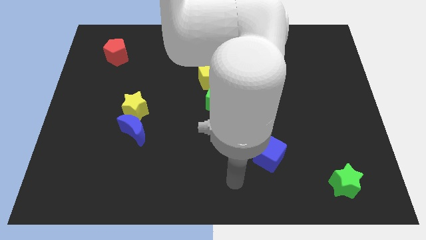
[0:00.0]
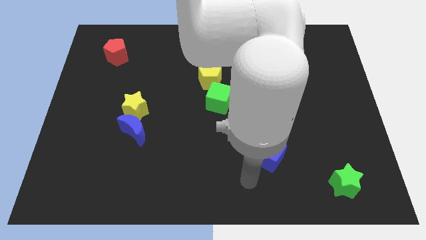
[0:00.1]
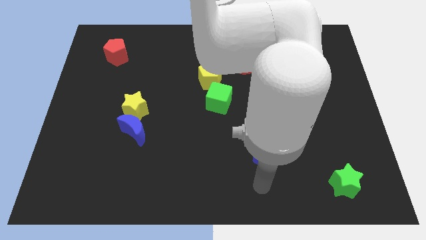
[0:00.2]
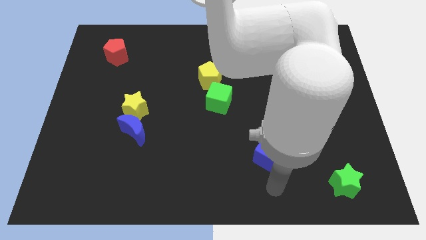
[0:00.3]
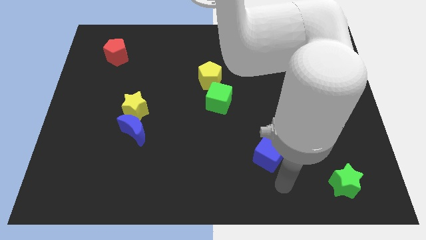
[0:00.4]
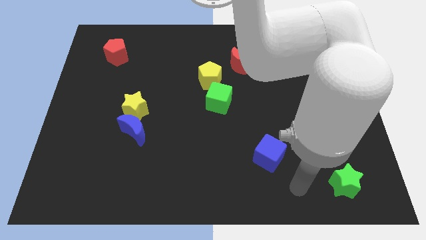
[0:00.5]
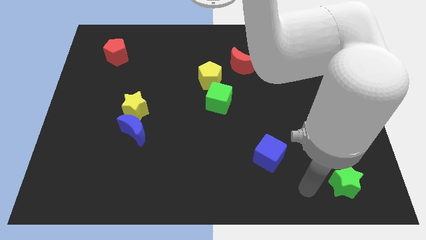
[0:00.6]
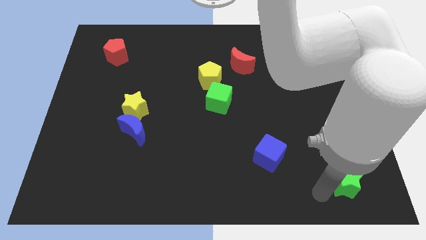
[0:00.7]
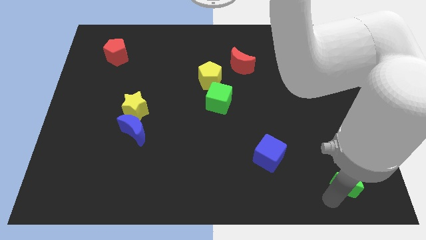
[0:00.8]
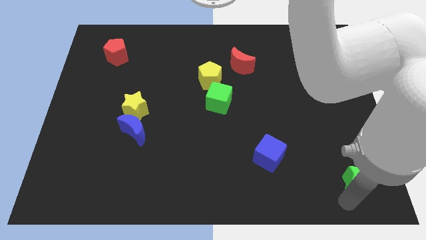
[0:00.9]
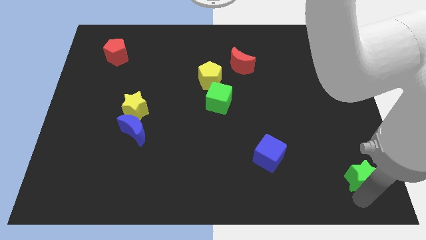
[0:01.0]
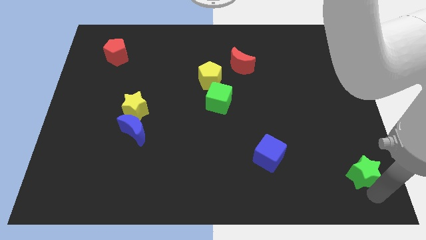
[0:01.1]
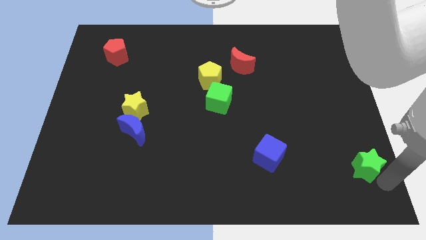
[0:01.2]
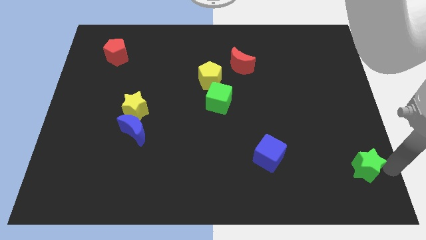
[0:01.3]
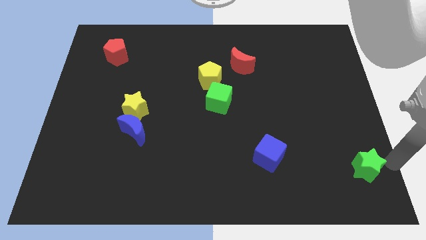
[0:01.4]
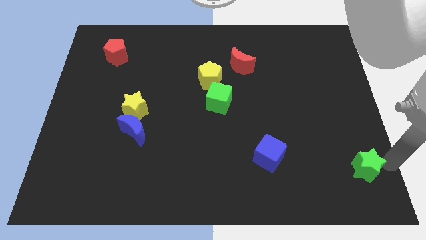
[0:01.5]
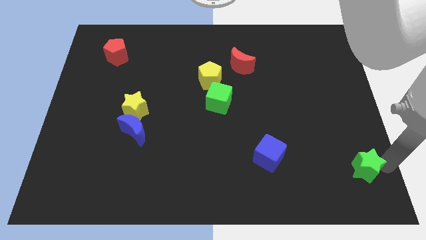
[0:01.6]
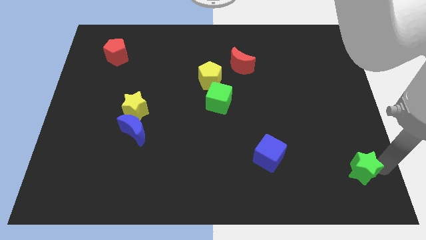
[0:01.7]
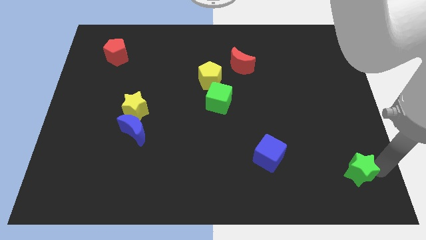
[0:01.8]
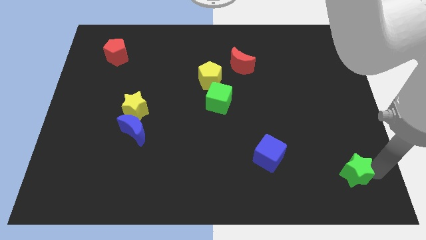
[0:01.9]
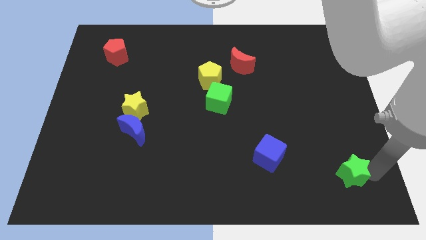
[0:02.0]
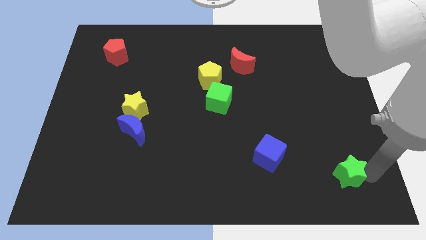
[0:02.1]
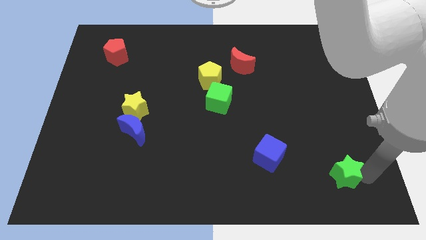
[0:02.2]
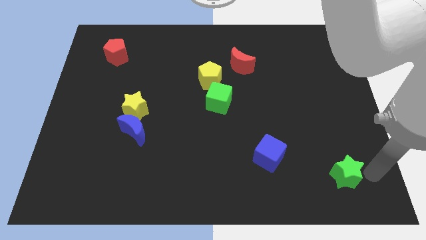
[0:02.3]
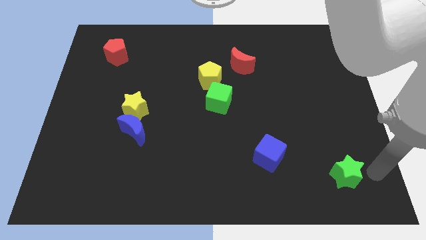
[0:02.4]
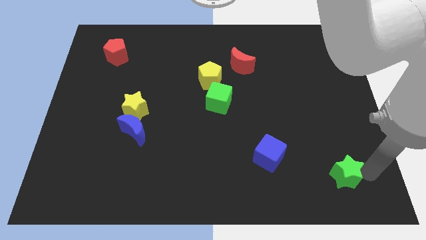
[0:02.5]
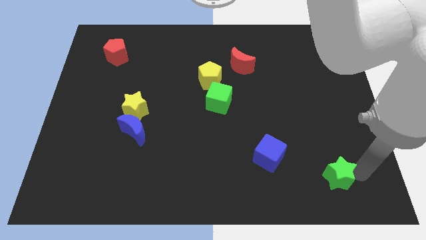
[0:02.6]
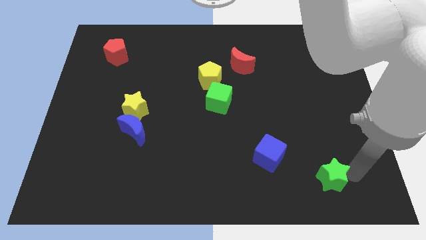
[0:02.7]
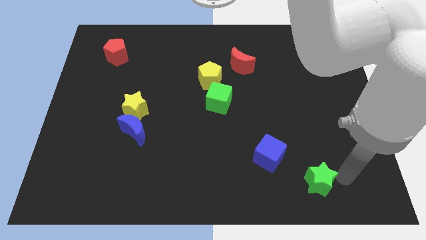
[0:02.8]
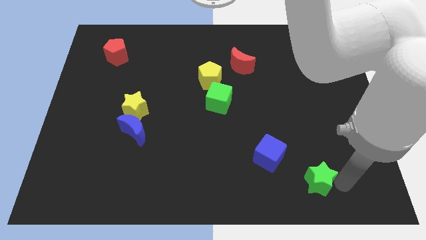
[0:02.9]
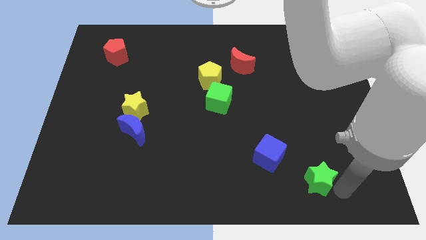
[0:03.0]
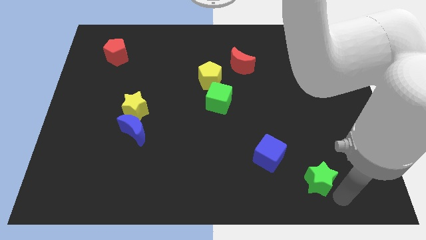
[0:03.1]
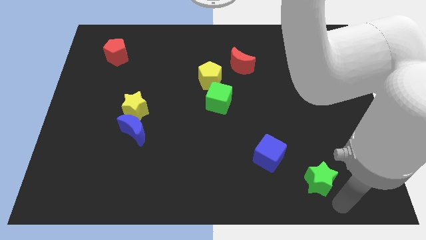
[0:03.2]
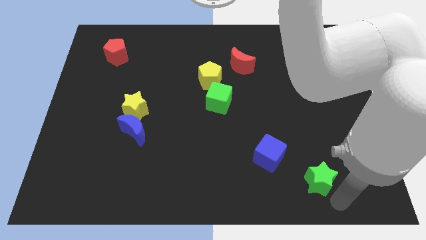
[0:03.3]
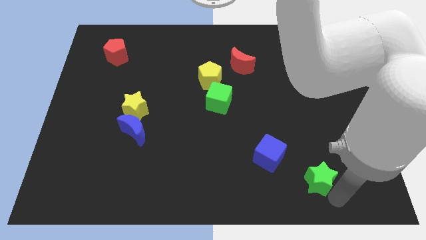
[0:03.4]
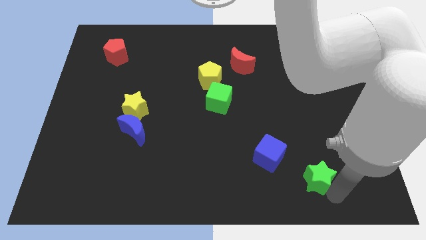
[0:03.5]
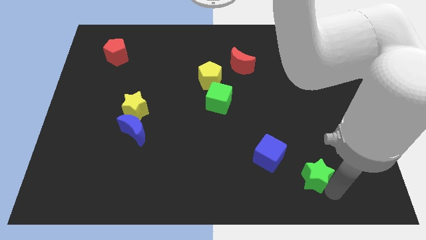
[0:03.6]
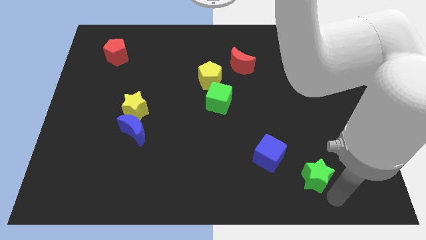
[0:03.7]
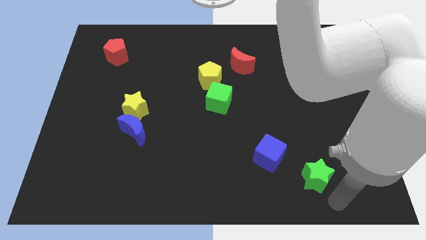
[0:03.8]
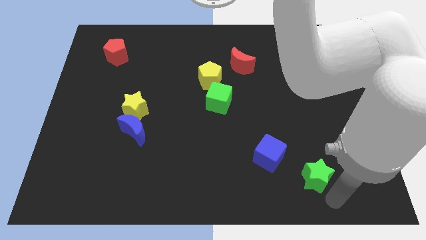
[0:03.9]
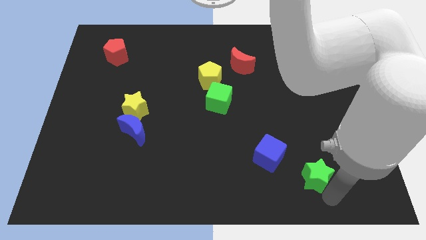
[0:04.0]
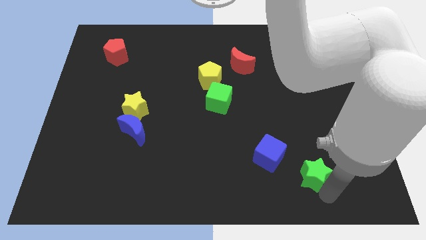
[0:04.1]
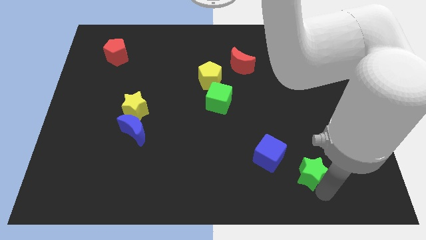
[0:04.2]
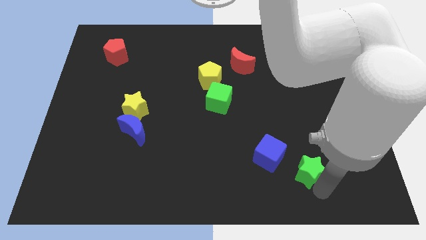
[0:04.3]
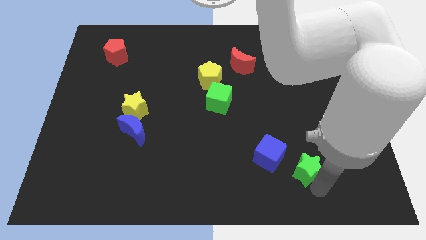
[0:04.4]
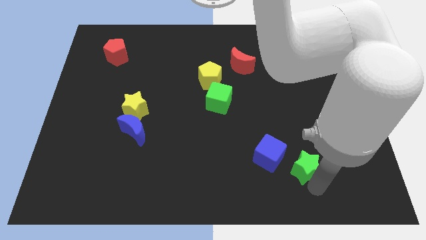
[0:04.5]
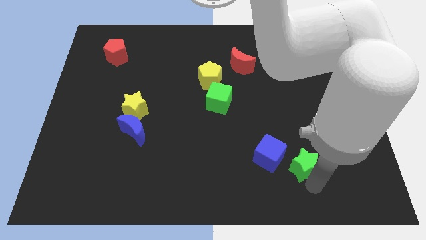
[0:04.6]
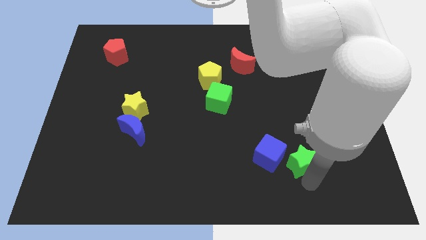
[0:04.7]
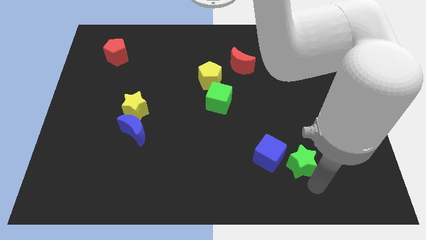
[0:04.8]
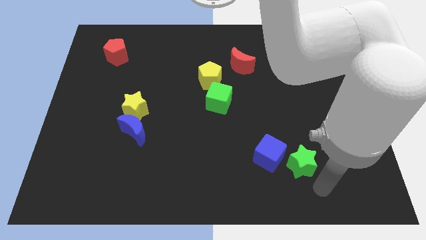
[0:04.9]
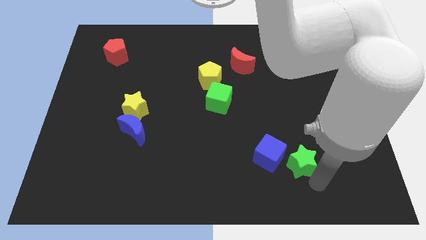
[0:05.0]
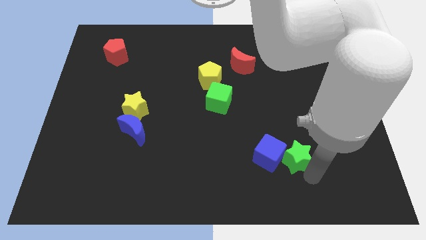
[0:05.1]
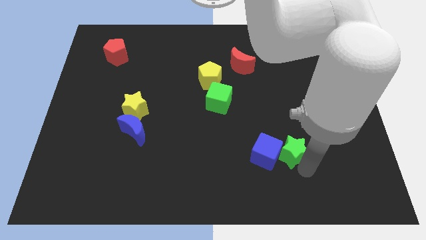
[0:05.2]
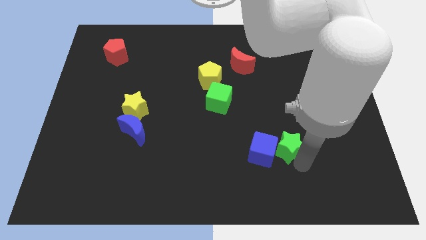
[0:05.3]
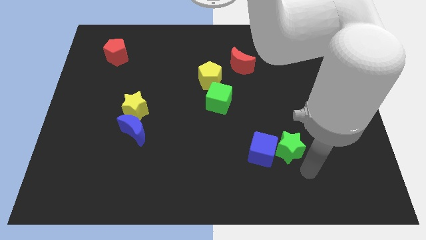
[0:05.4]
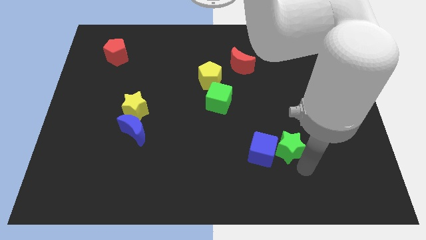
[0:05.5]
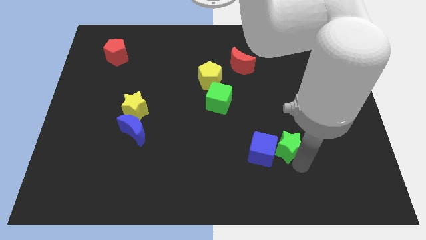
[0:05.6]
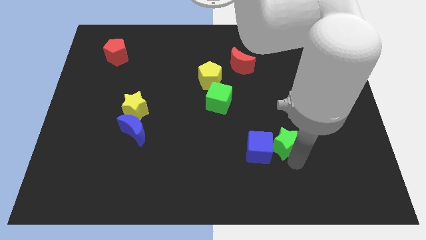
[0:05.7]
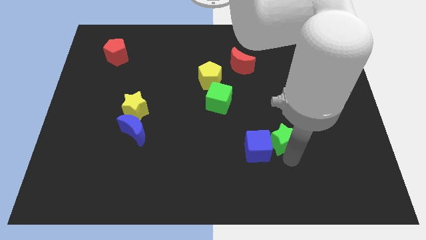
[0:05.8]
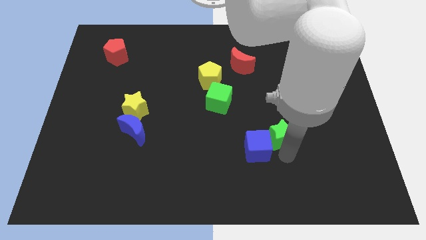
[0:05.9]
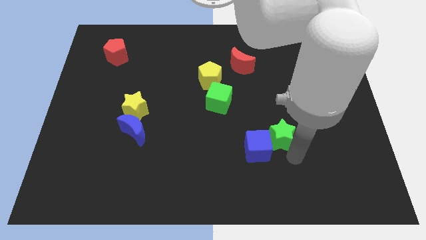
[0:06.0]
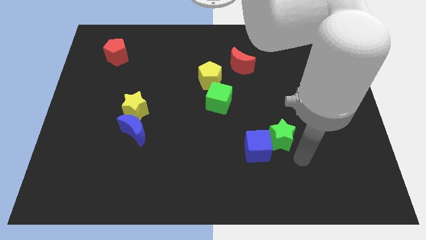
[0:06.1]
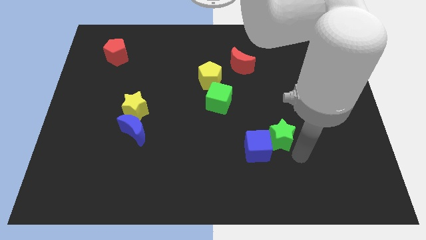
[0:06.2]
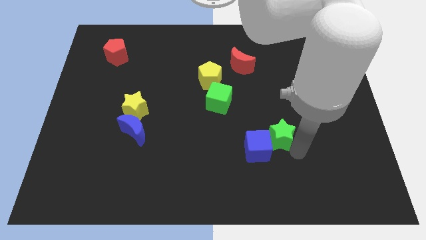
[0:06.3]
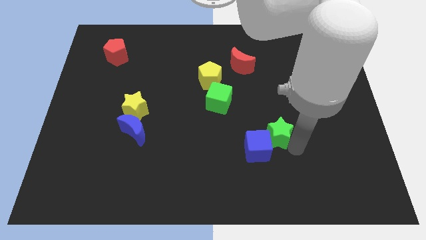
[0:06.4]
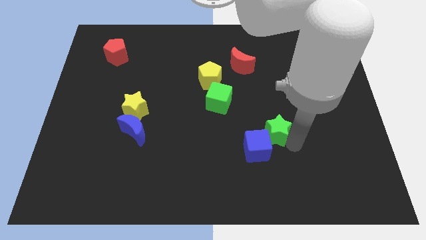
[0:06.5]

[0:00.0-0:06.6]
move the green star above the blue cube

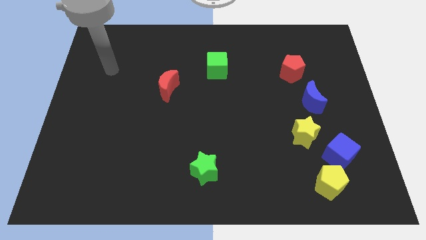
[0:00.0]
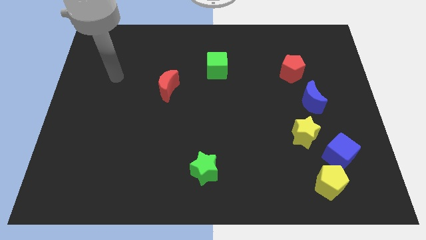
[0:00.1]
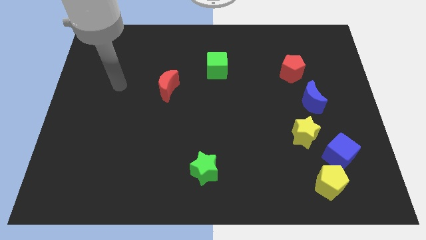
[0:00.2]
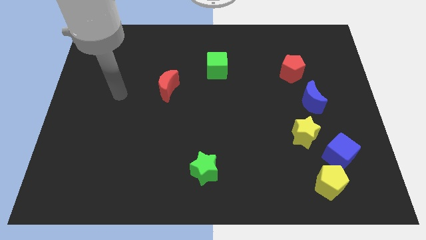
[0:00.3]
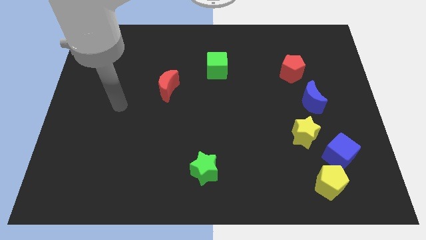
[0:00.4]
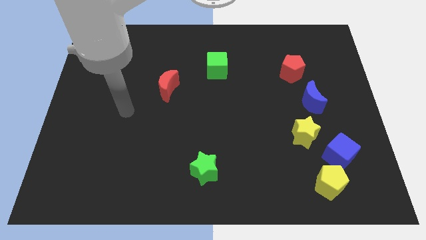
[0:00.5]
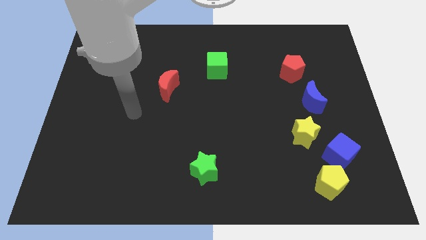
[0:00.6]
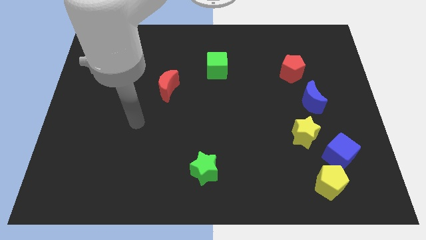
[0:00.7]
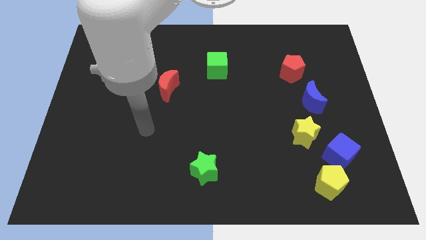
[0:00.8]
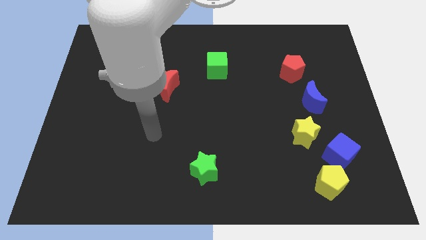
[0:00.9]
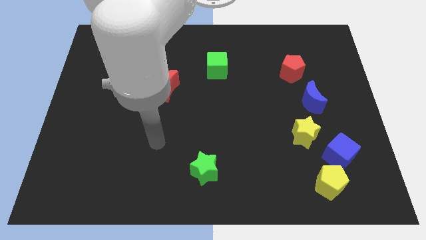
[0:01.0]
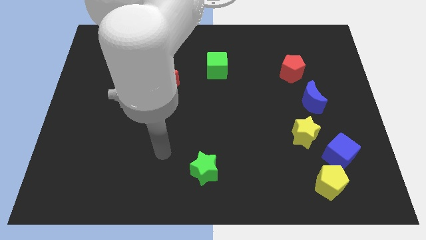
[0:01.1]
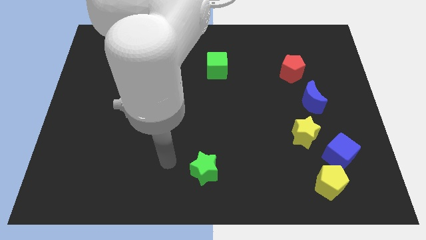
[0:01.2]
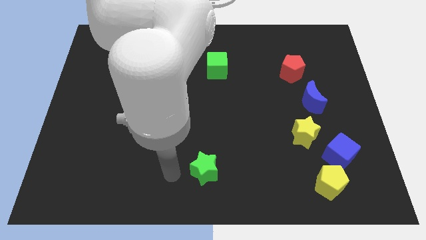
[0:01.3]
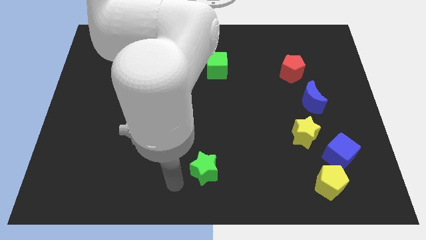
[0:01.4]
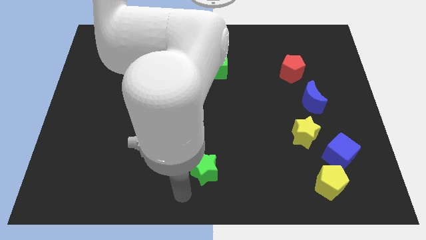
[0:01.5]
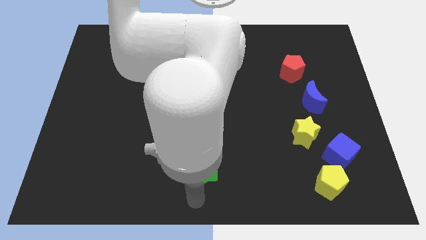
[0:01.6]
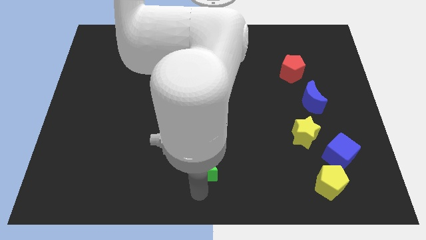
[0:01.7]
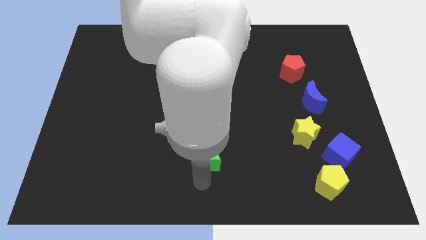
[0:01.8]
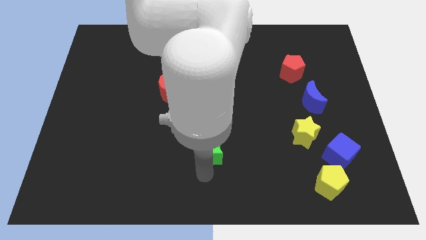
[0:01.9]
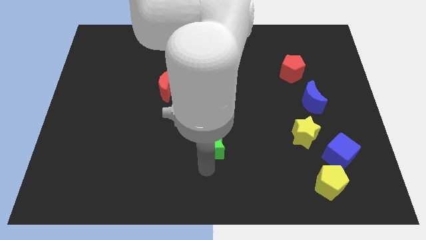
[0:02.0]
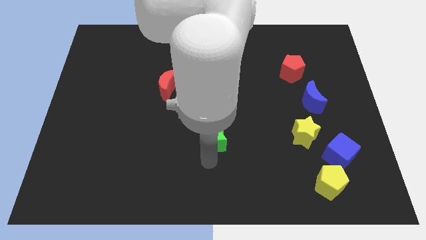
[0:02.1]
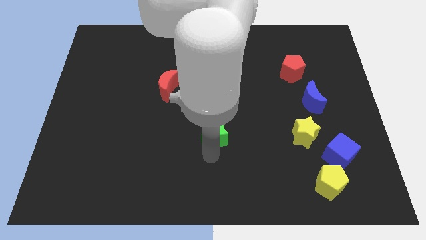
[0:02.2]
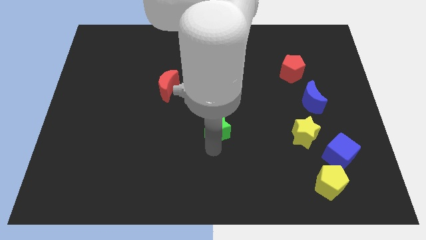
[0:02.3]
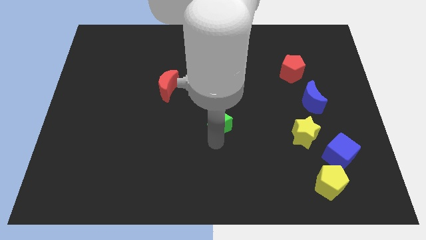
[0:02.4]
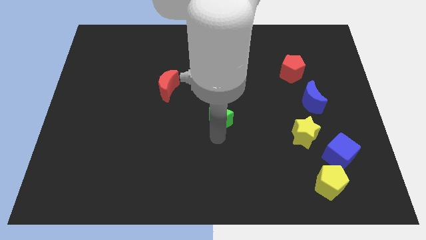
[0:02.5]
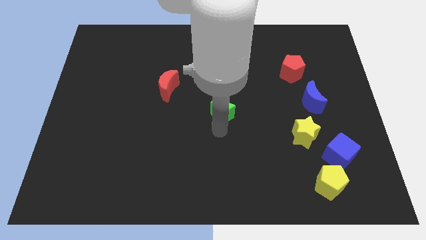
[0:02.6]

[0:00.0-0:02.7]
push the green star below the green cube
